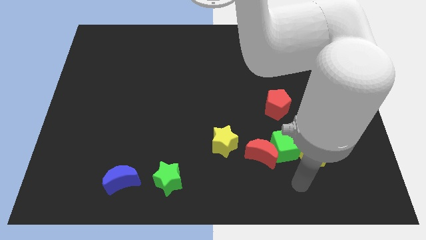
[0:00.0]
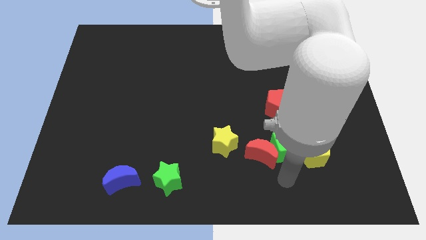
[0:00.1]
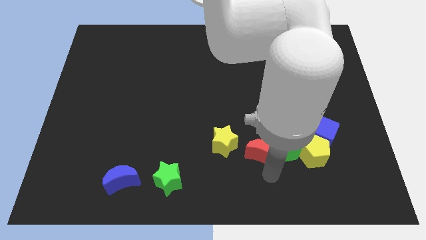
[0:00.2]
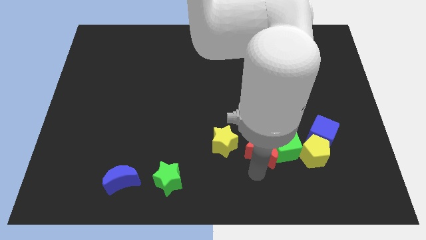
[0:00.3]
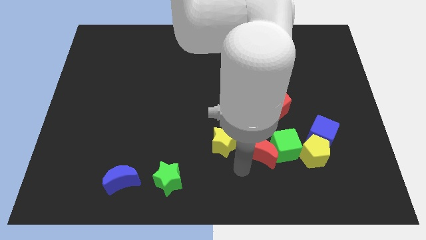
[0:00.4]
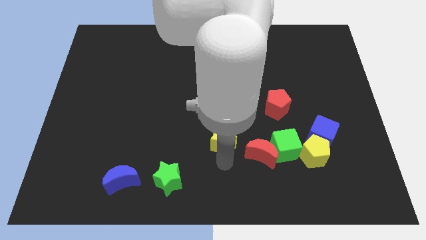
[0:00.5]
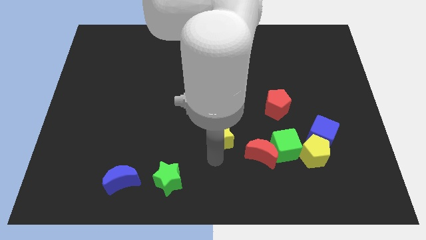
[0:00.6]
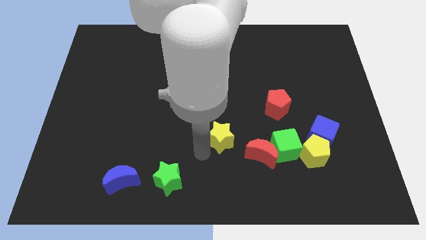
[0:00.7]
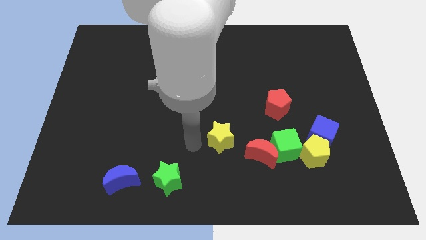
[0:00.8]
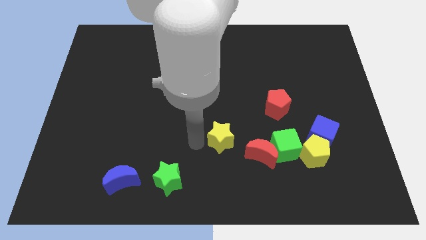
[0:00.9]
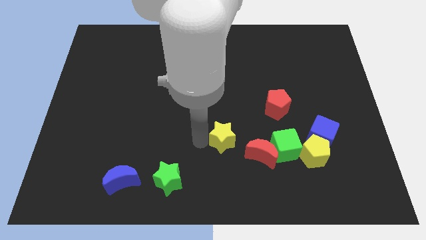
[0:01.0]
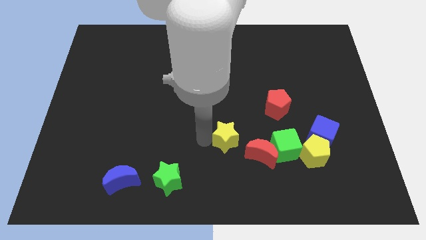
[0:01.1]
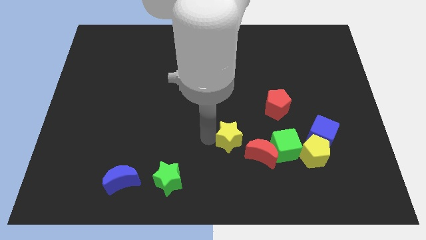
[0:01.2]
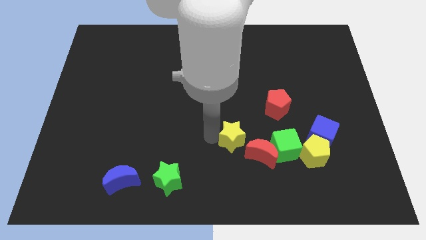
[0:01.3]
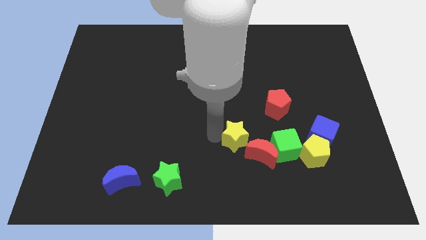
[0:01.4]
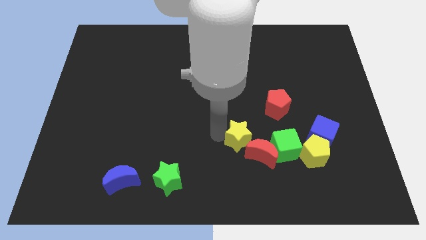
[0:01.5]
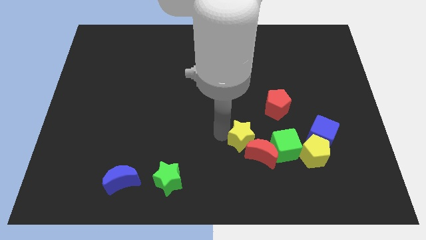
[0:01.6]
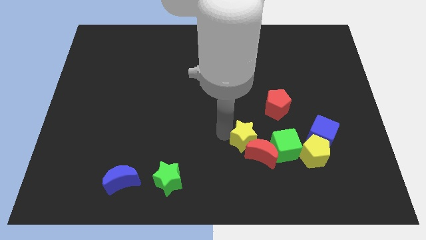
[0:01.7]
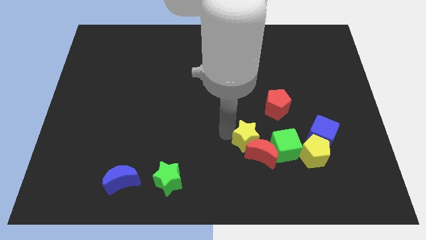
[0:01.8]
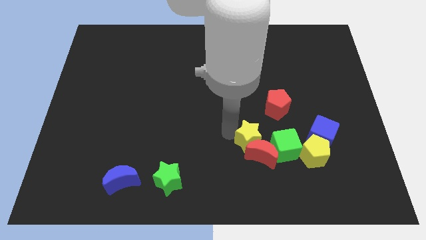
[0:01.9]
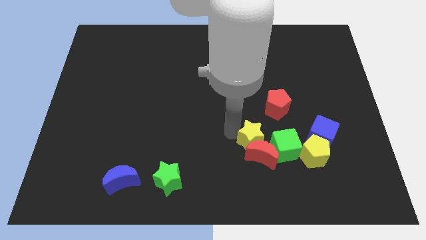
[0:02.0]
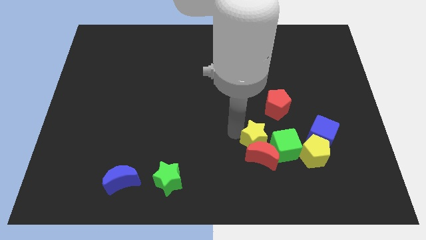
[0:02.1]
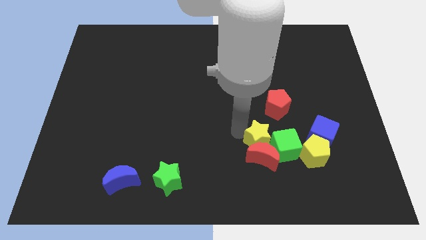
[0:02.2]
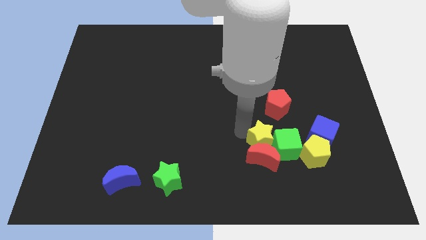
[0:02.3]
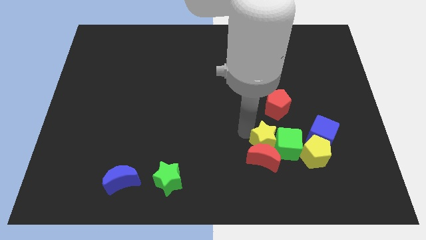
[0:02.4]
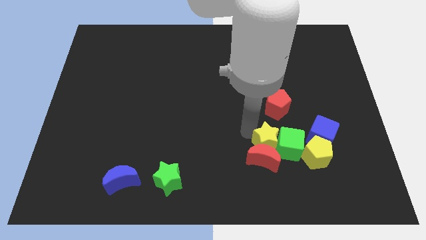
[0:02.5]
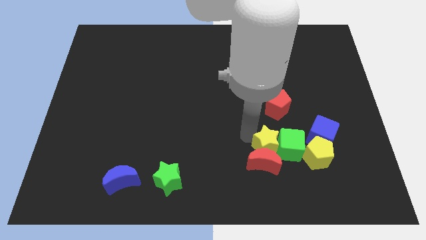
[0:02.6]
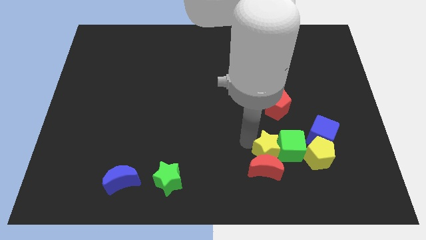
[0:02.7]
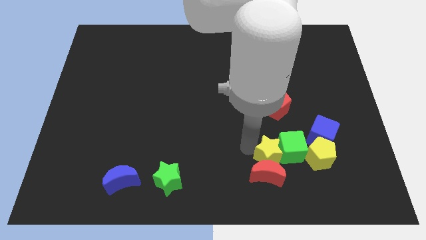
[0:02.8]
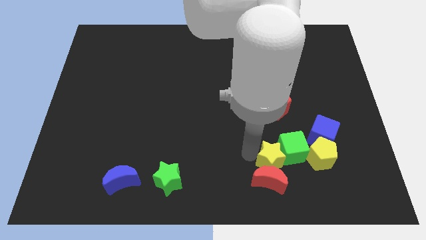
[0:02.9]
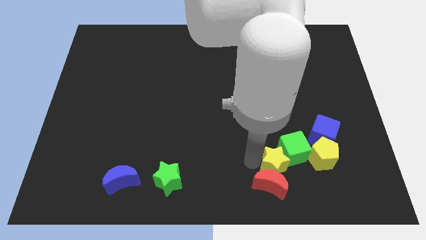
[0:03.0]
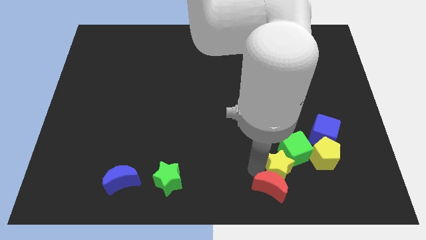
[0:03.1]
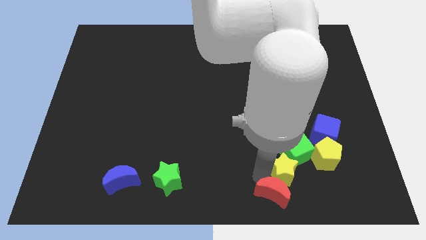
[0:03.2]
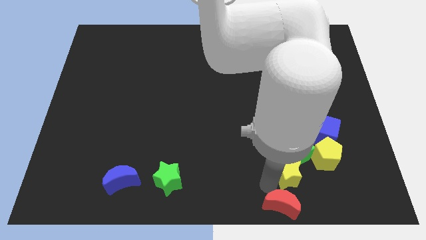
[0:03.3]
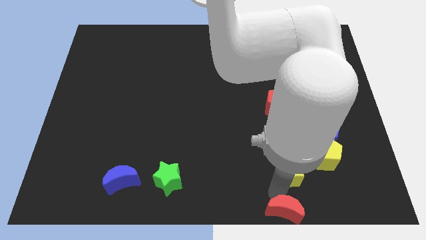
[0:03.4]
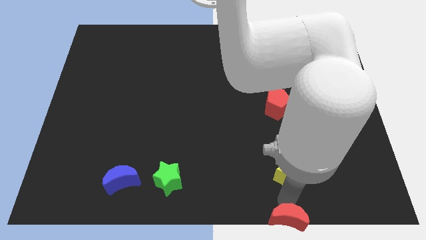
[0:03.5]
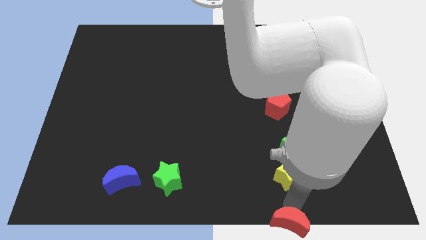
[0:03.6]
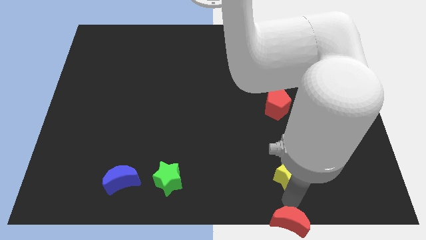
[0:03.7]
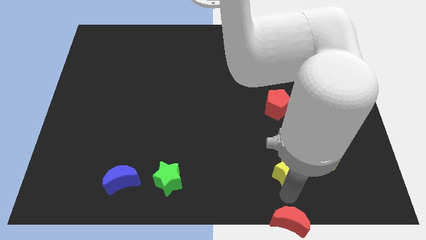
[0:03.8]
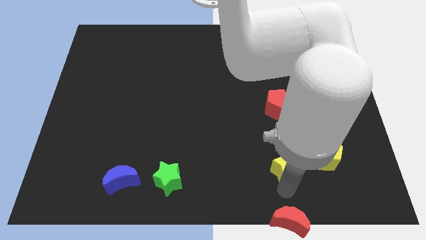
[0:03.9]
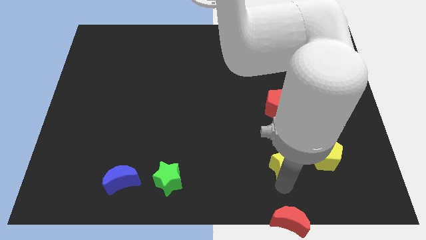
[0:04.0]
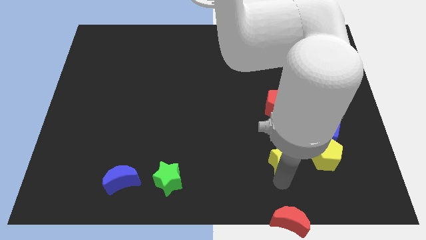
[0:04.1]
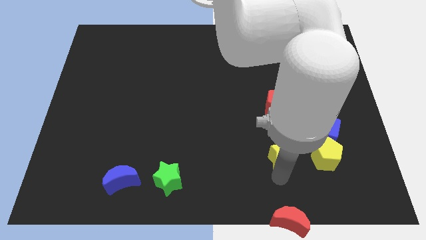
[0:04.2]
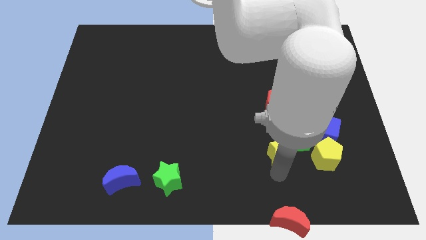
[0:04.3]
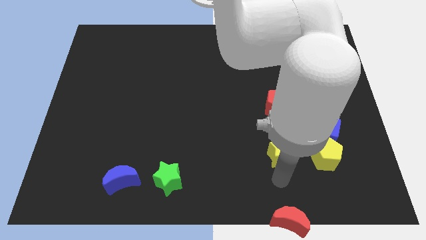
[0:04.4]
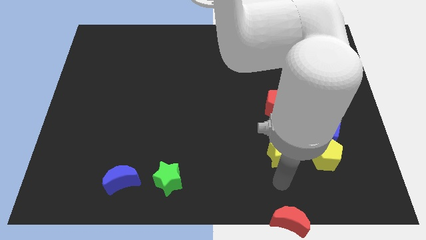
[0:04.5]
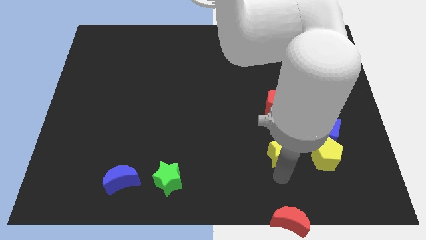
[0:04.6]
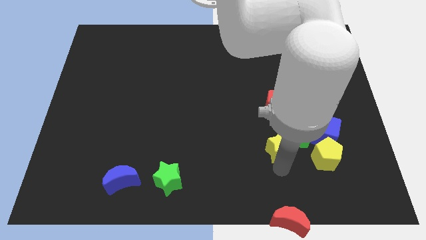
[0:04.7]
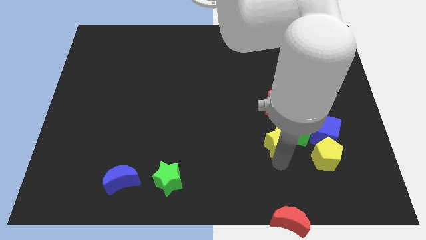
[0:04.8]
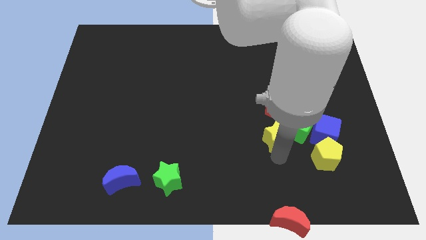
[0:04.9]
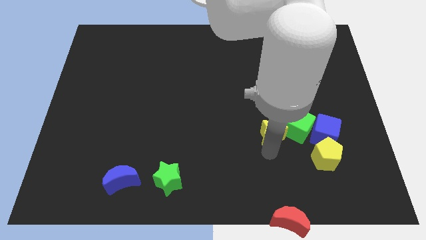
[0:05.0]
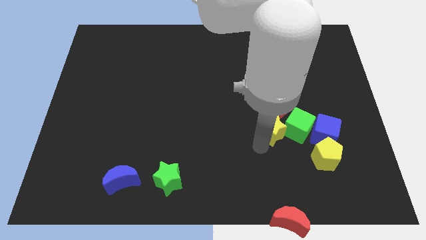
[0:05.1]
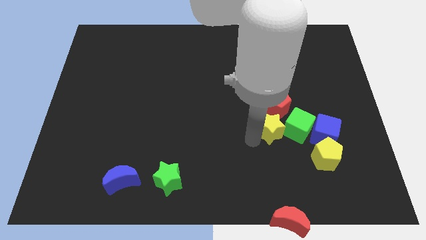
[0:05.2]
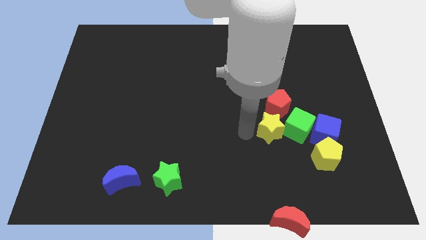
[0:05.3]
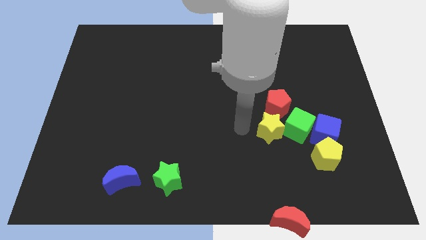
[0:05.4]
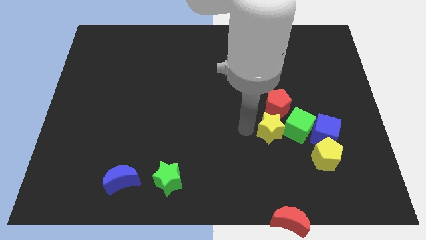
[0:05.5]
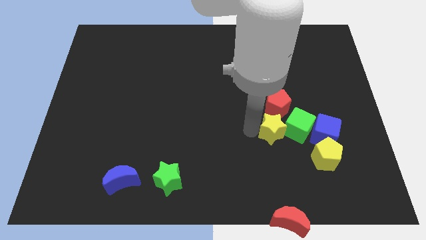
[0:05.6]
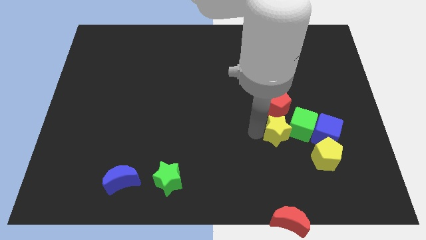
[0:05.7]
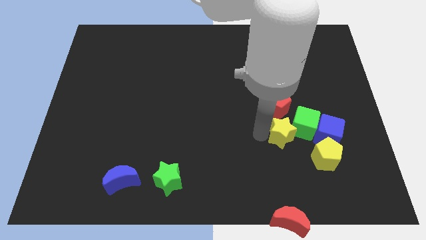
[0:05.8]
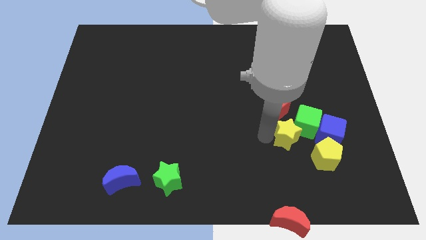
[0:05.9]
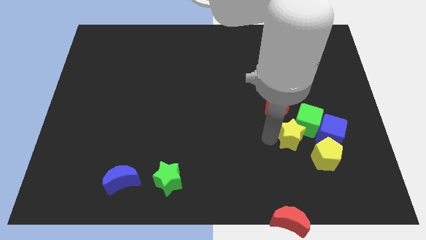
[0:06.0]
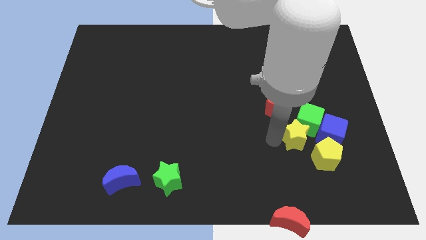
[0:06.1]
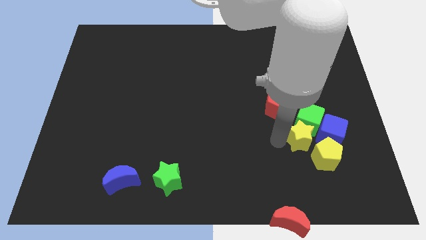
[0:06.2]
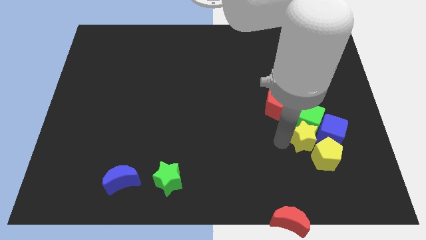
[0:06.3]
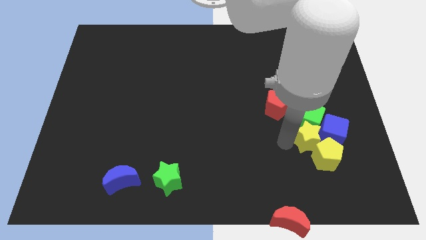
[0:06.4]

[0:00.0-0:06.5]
put the yellow star to the blue cube
